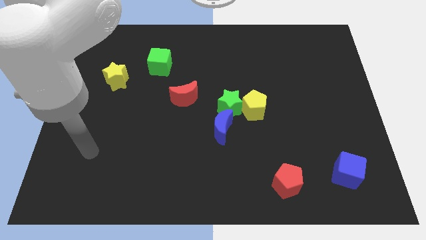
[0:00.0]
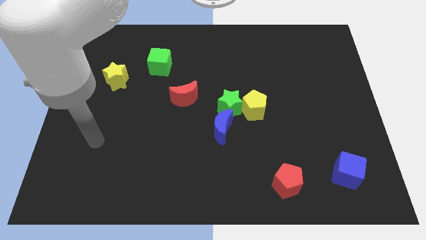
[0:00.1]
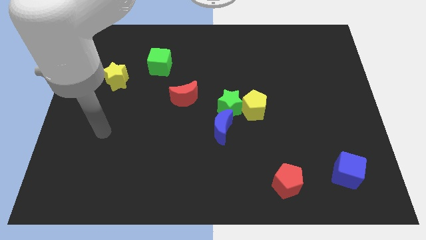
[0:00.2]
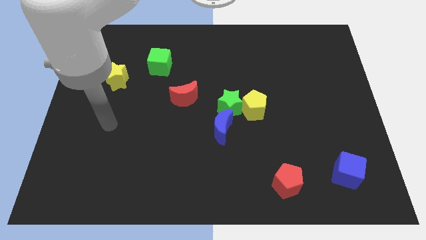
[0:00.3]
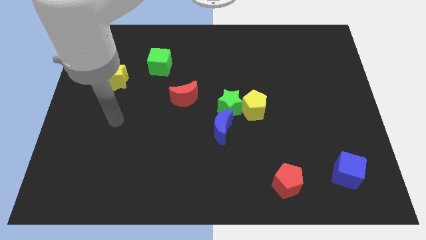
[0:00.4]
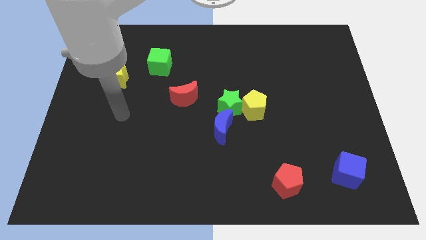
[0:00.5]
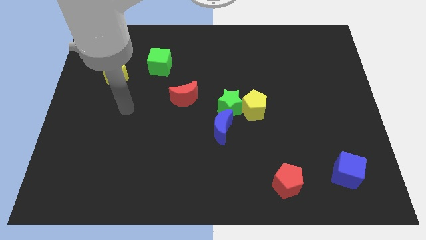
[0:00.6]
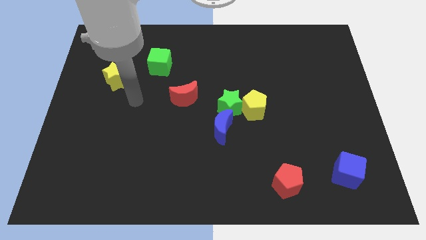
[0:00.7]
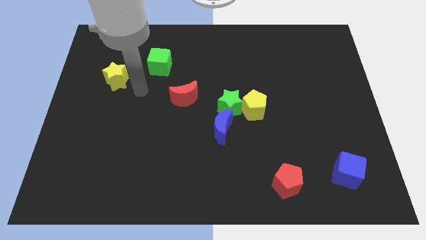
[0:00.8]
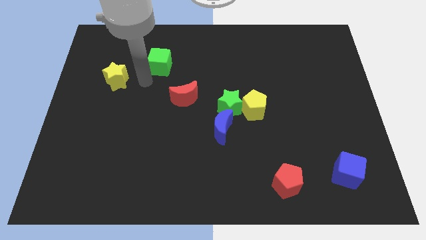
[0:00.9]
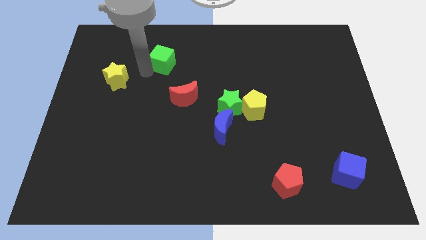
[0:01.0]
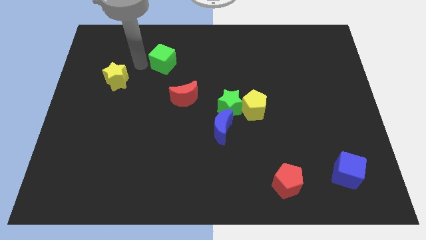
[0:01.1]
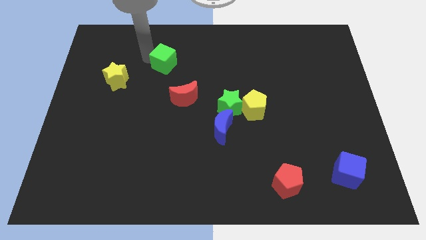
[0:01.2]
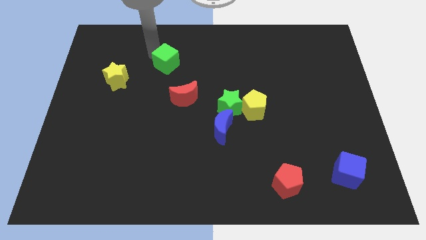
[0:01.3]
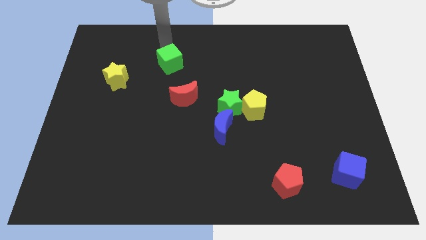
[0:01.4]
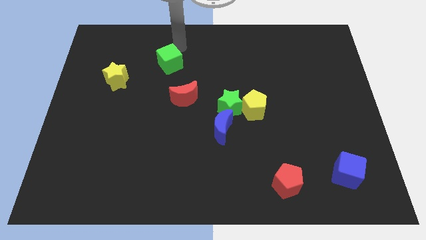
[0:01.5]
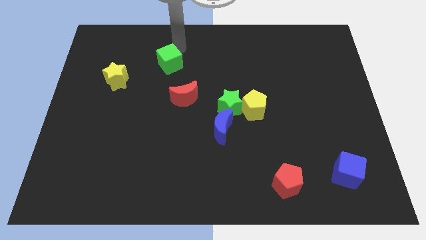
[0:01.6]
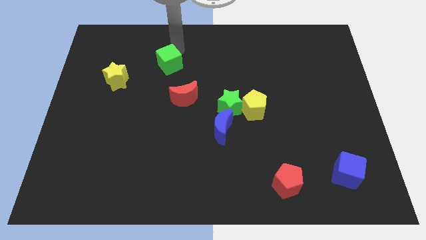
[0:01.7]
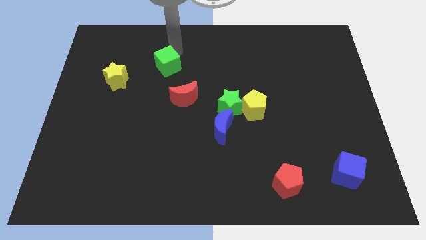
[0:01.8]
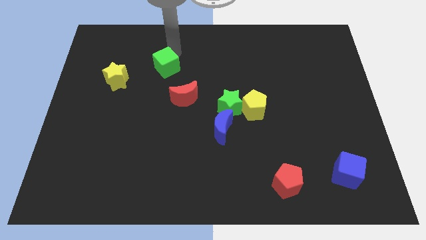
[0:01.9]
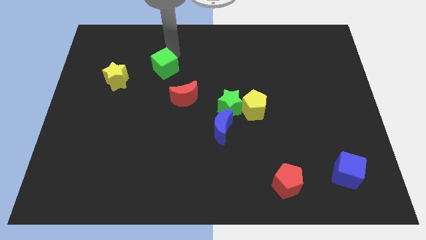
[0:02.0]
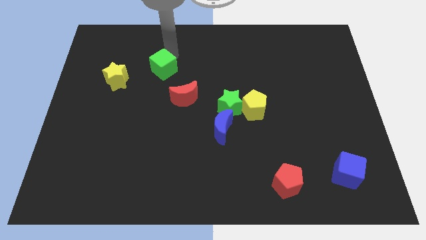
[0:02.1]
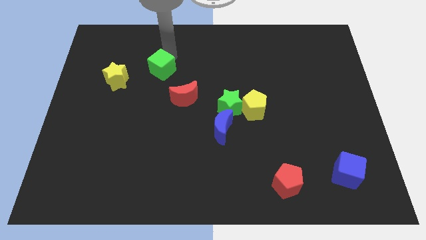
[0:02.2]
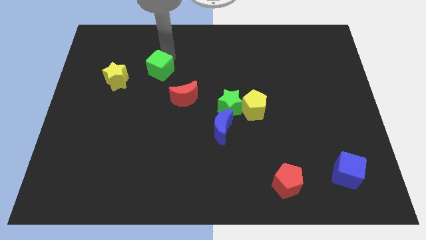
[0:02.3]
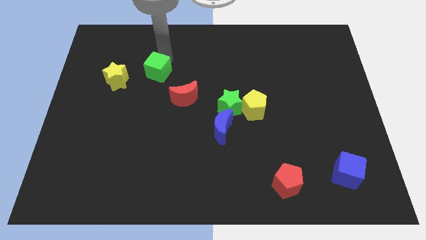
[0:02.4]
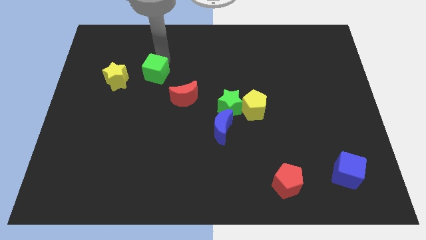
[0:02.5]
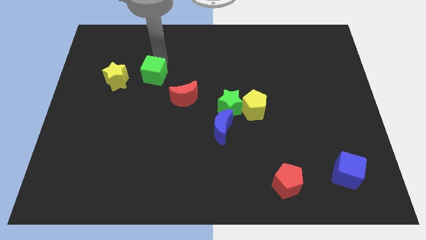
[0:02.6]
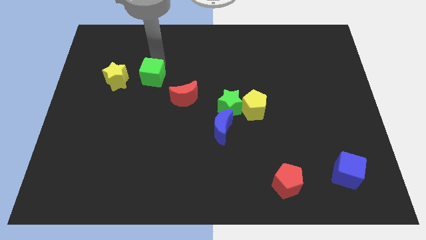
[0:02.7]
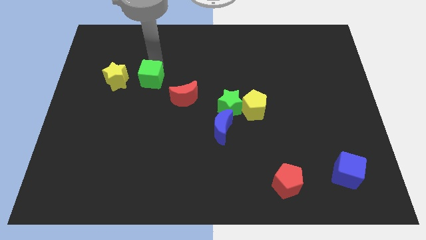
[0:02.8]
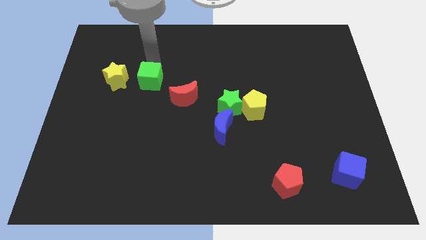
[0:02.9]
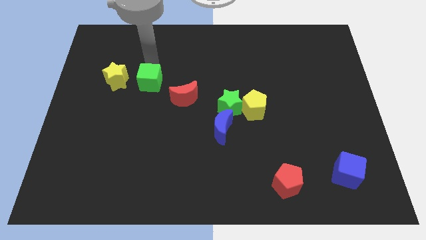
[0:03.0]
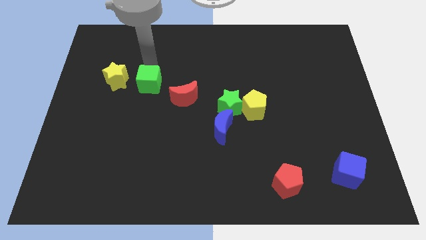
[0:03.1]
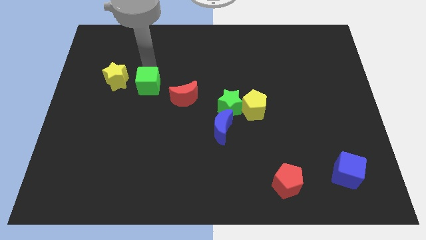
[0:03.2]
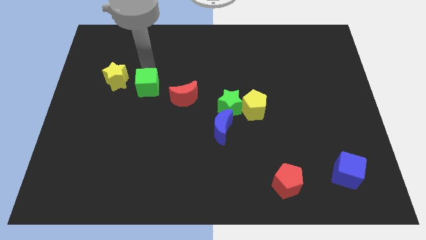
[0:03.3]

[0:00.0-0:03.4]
push the green cube slightly downwards

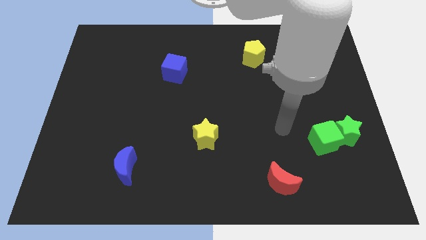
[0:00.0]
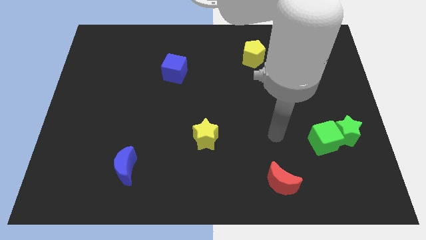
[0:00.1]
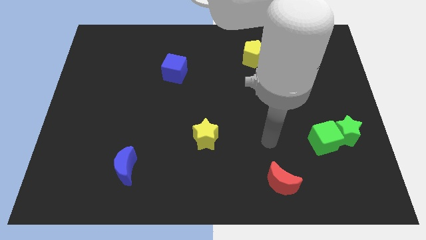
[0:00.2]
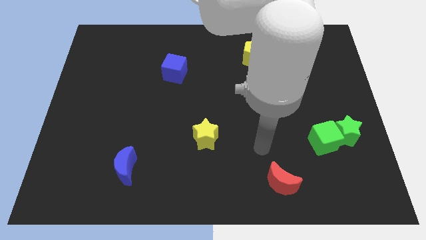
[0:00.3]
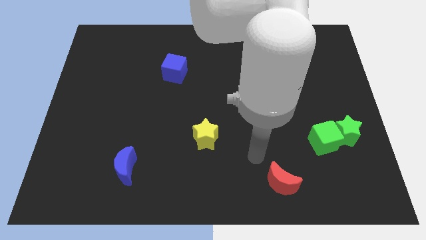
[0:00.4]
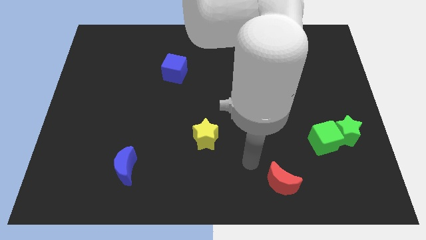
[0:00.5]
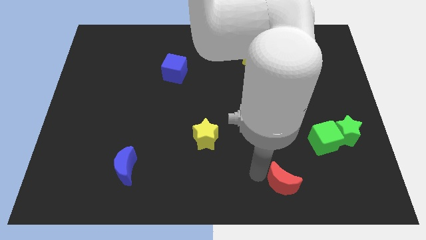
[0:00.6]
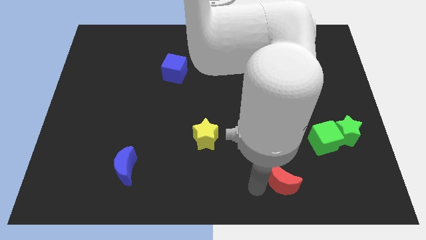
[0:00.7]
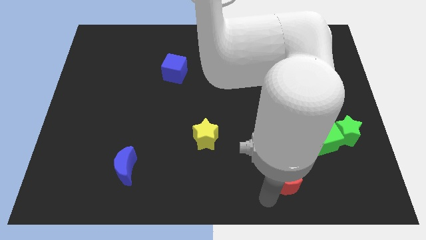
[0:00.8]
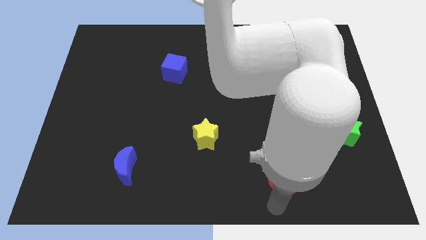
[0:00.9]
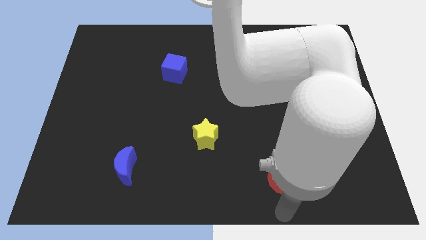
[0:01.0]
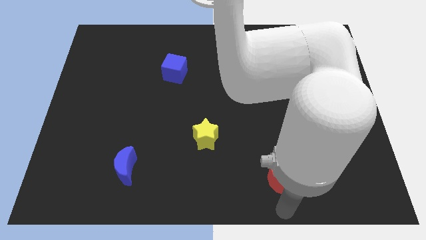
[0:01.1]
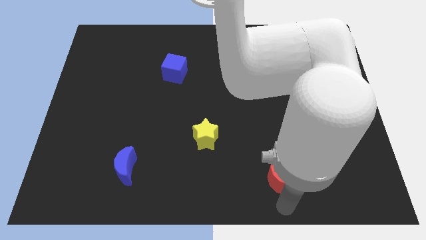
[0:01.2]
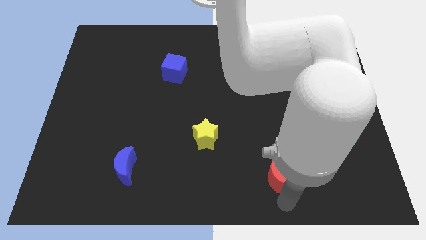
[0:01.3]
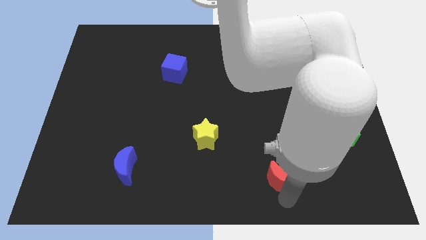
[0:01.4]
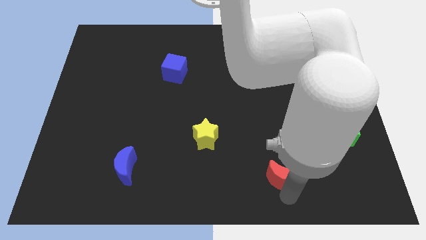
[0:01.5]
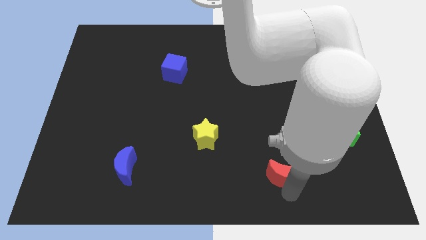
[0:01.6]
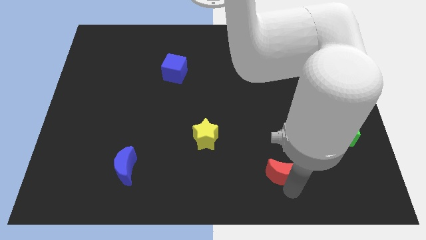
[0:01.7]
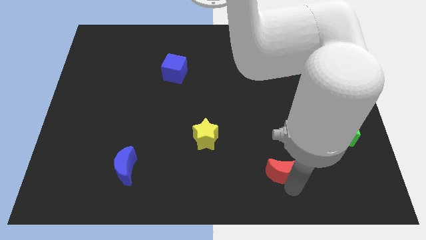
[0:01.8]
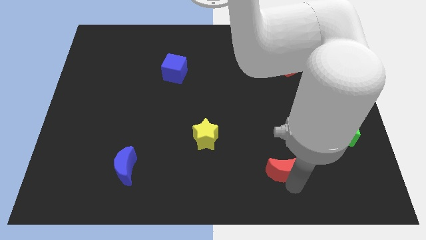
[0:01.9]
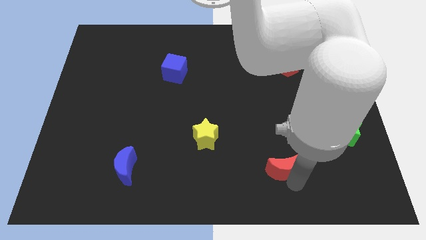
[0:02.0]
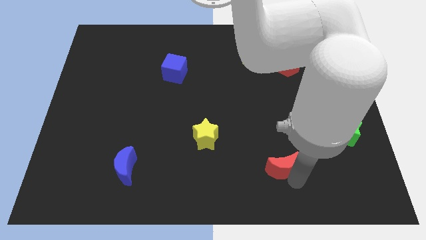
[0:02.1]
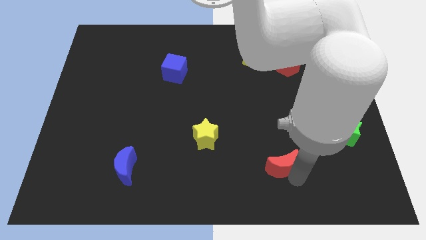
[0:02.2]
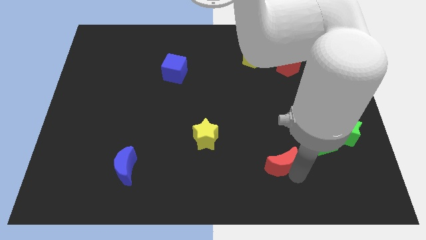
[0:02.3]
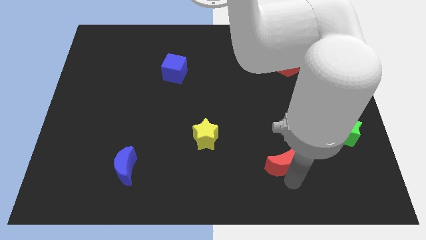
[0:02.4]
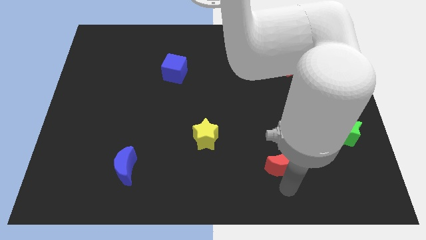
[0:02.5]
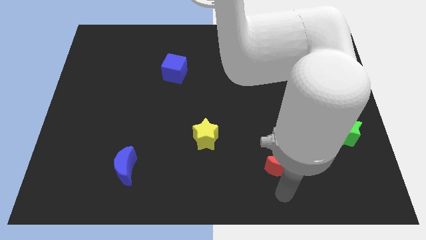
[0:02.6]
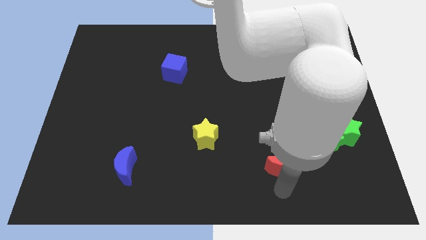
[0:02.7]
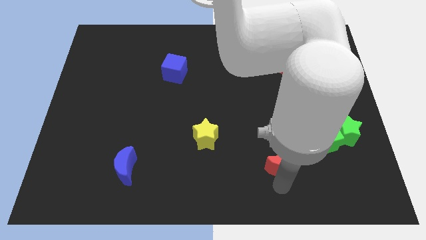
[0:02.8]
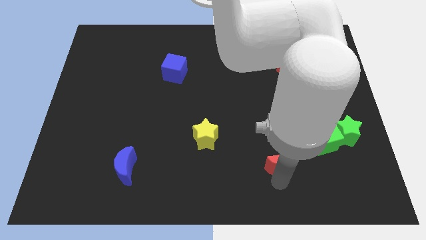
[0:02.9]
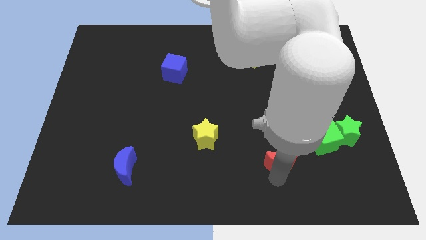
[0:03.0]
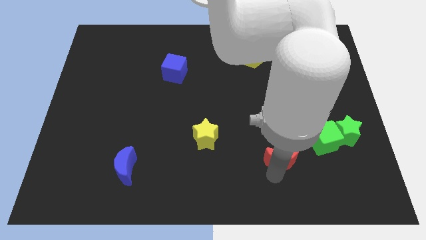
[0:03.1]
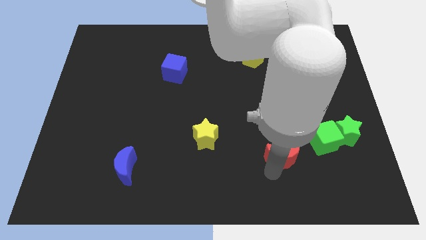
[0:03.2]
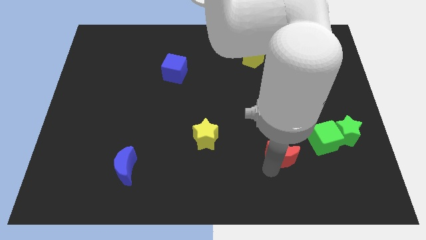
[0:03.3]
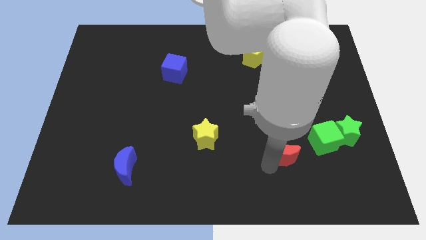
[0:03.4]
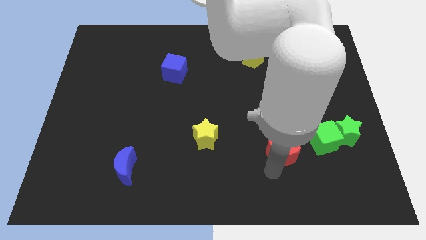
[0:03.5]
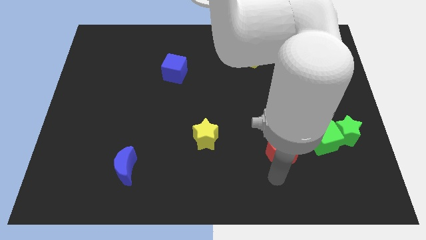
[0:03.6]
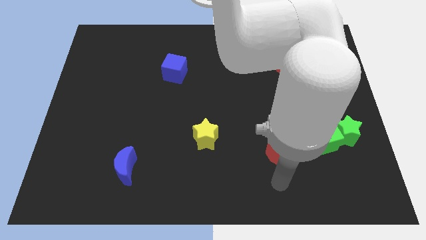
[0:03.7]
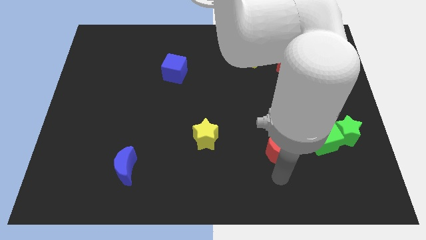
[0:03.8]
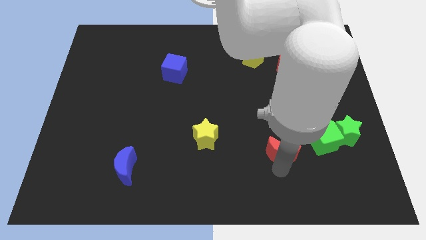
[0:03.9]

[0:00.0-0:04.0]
push the red moon upwards a little

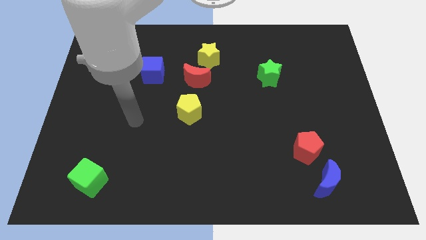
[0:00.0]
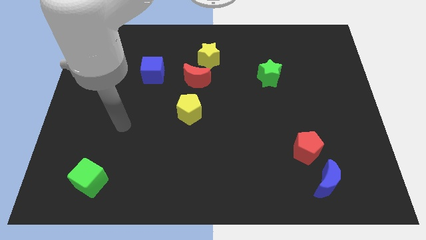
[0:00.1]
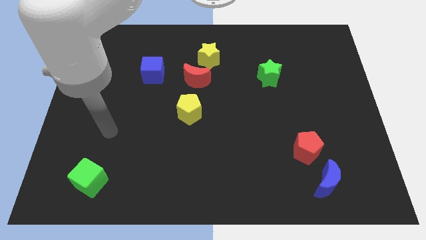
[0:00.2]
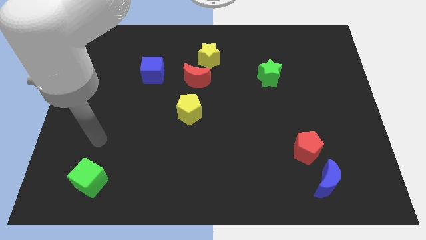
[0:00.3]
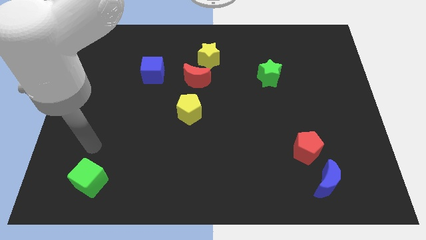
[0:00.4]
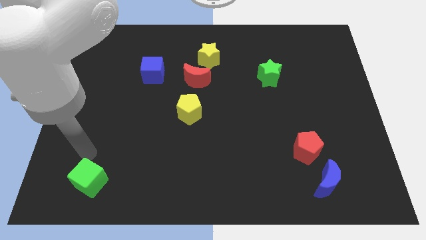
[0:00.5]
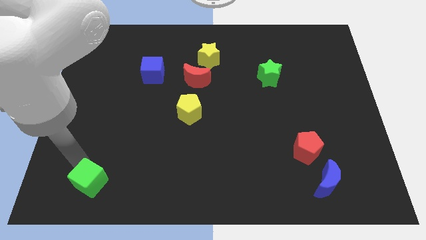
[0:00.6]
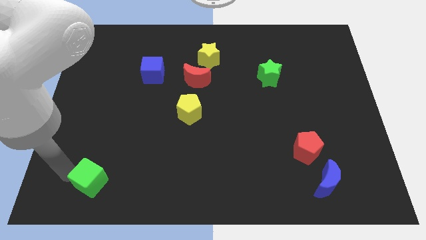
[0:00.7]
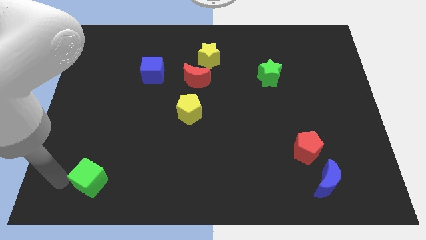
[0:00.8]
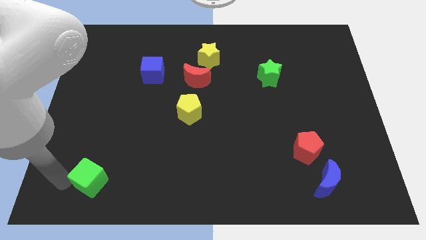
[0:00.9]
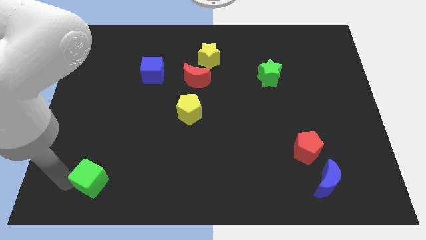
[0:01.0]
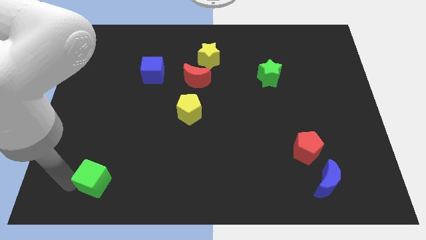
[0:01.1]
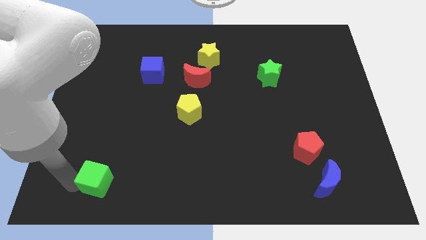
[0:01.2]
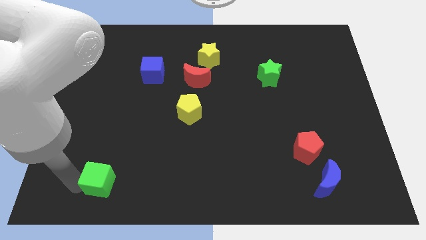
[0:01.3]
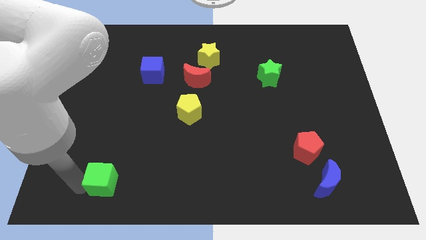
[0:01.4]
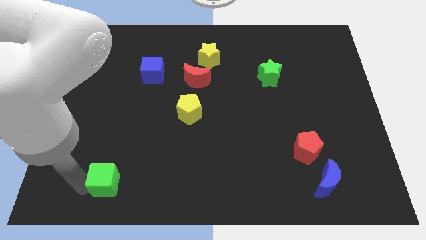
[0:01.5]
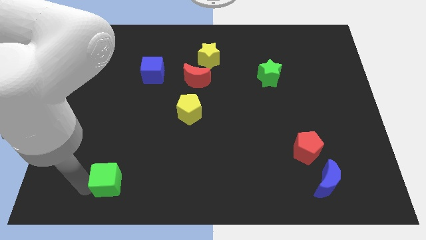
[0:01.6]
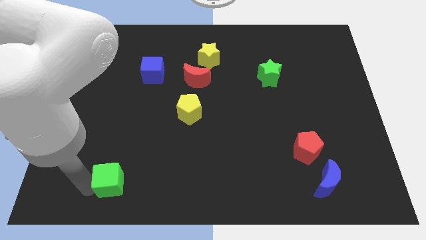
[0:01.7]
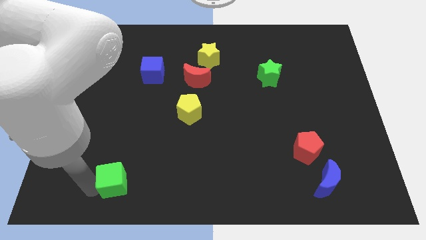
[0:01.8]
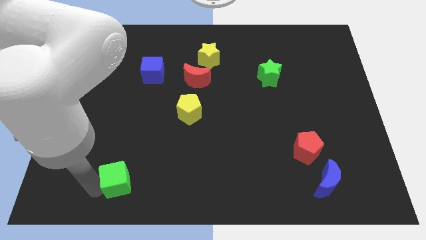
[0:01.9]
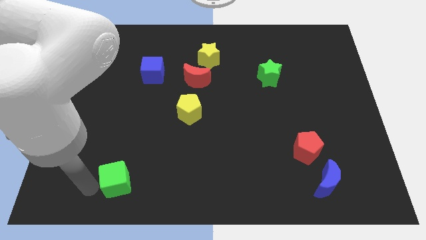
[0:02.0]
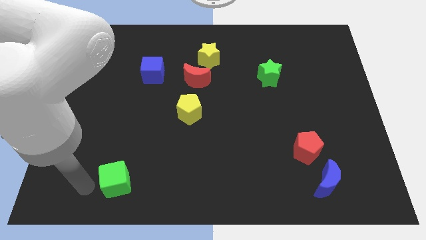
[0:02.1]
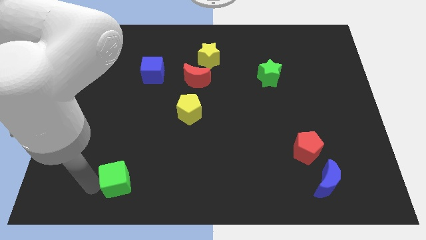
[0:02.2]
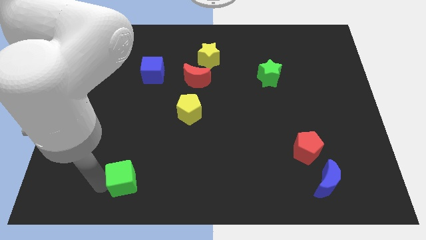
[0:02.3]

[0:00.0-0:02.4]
push the green cube somewhat right
